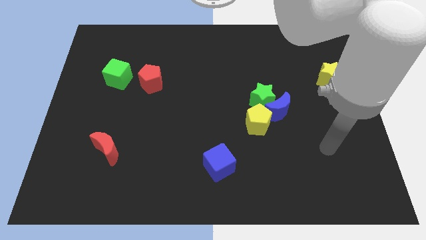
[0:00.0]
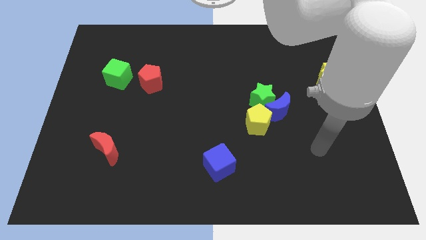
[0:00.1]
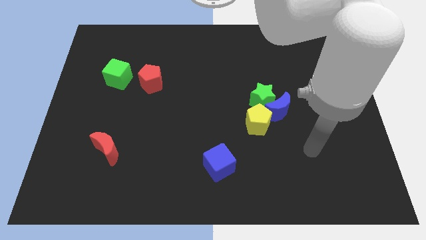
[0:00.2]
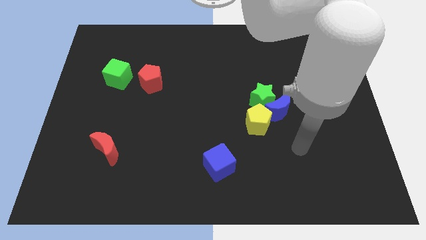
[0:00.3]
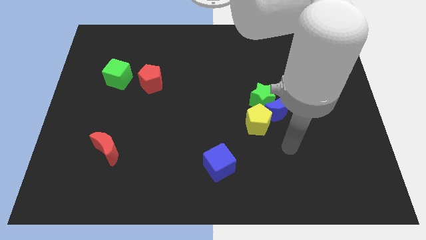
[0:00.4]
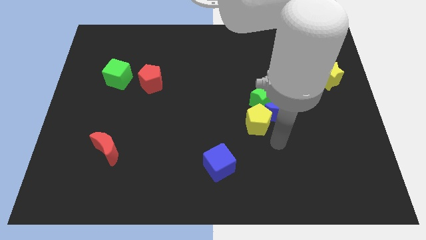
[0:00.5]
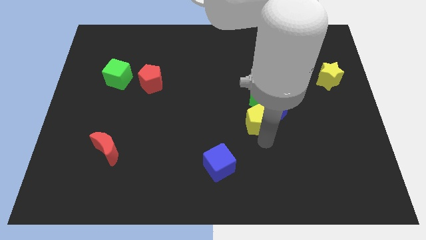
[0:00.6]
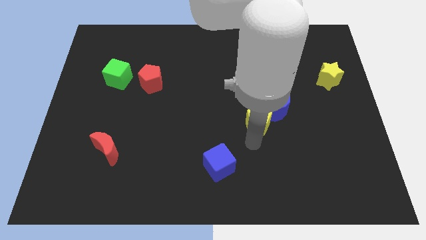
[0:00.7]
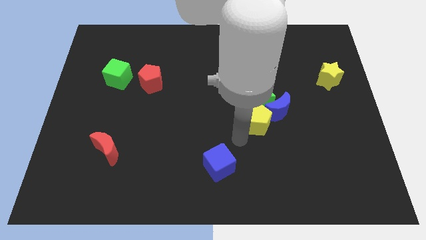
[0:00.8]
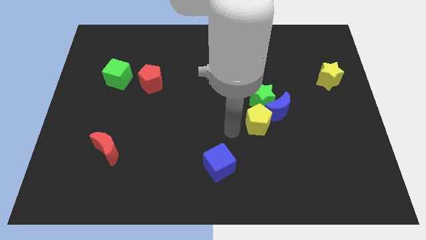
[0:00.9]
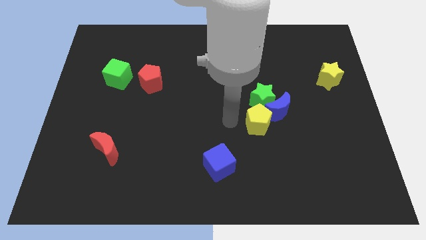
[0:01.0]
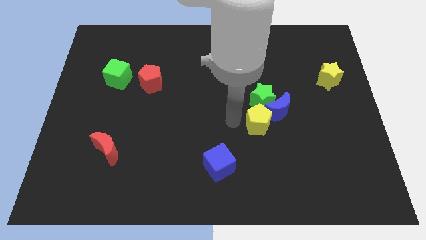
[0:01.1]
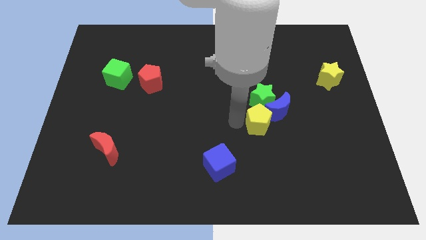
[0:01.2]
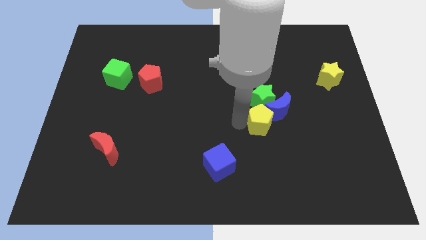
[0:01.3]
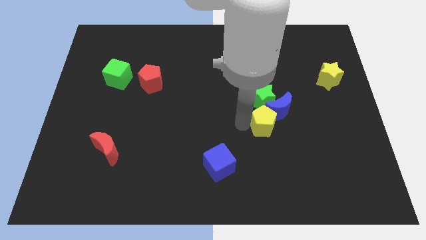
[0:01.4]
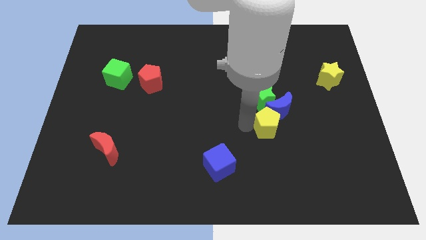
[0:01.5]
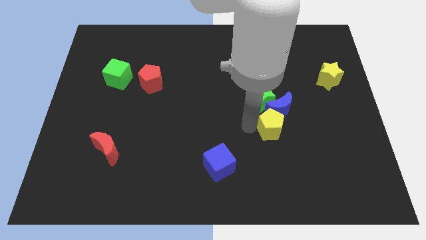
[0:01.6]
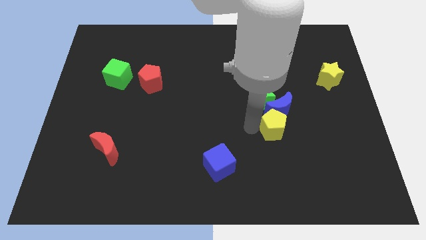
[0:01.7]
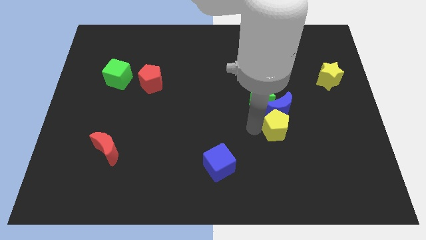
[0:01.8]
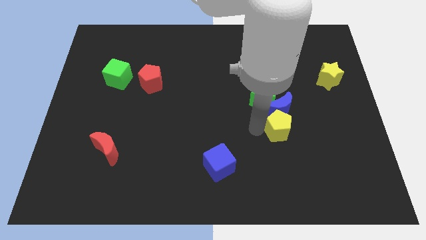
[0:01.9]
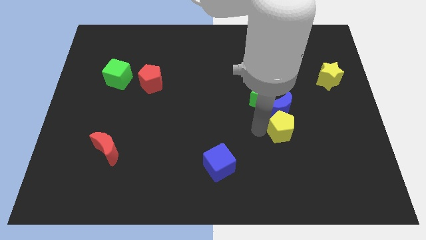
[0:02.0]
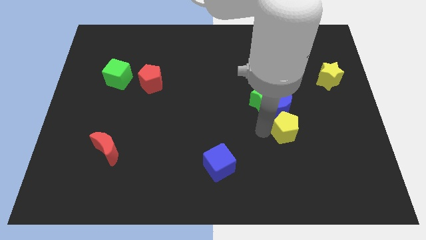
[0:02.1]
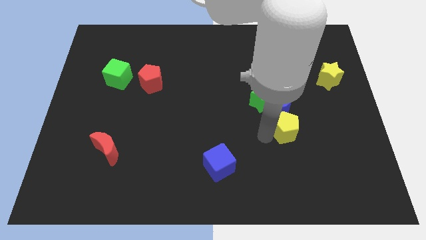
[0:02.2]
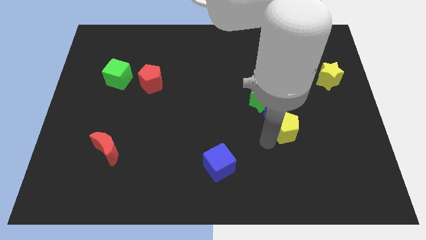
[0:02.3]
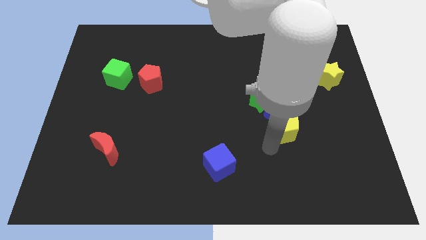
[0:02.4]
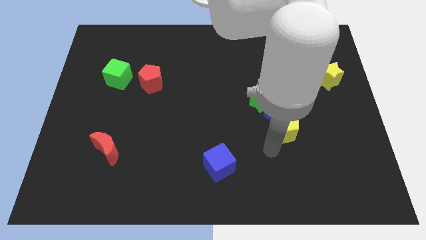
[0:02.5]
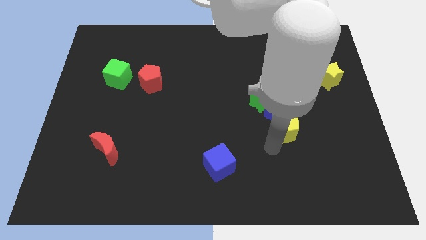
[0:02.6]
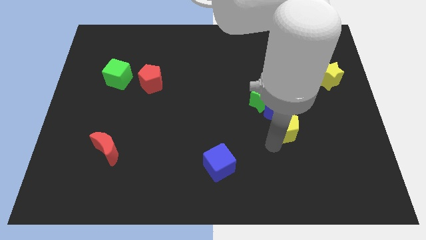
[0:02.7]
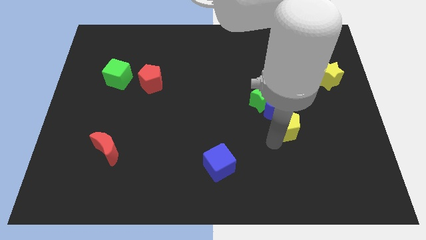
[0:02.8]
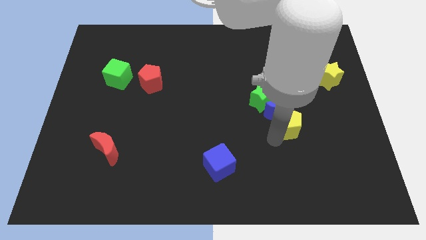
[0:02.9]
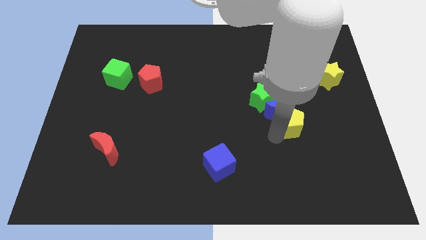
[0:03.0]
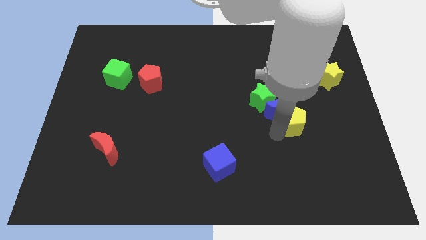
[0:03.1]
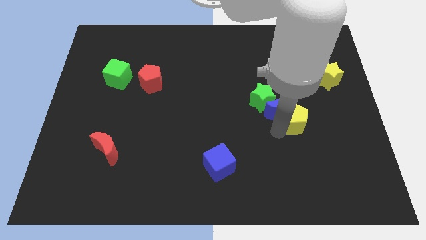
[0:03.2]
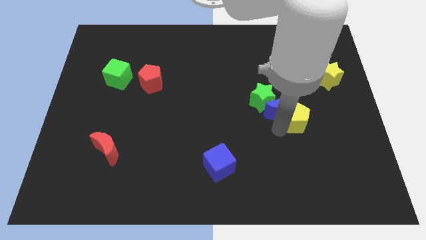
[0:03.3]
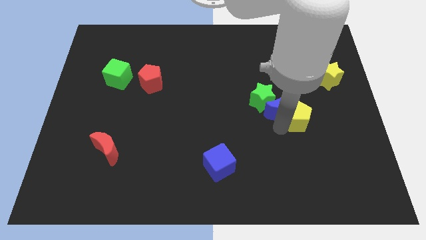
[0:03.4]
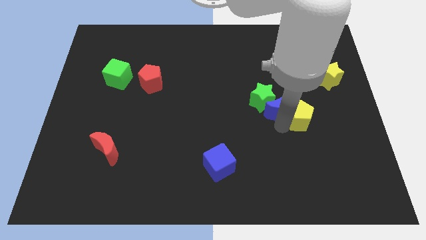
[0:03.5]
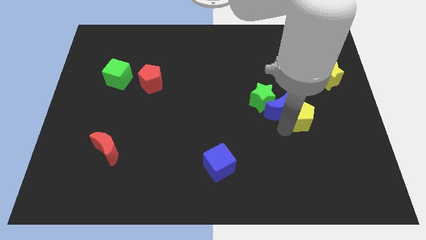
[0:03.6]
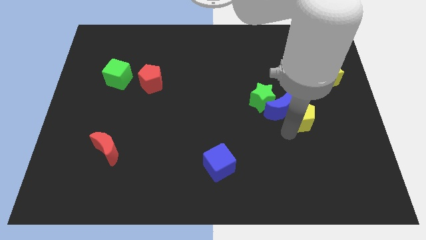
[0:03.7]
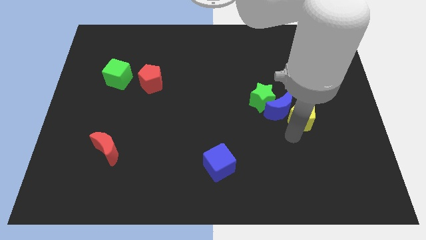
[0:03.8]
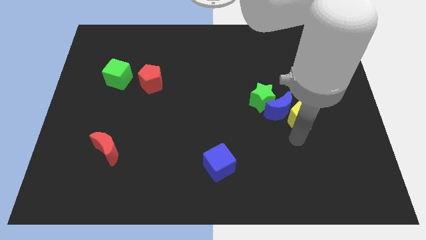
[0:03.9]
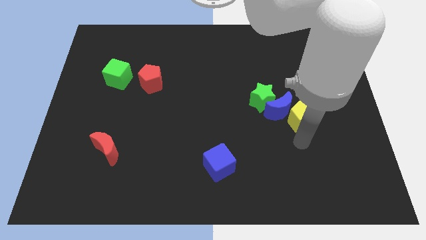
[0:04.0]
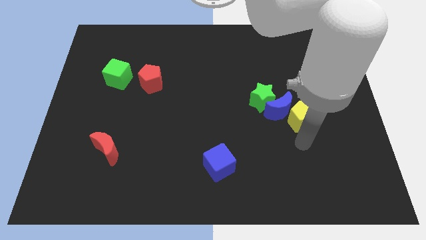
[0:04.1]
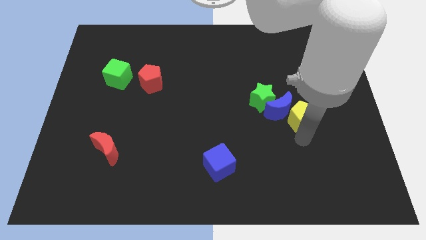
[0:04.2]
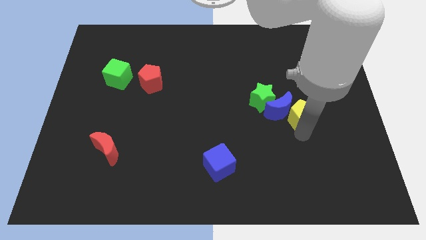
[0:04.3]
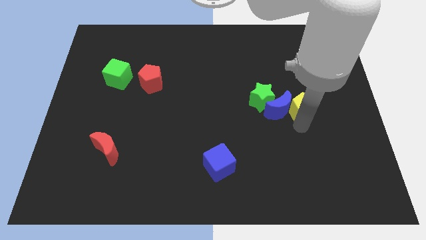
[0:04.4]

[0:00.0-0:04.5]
slightly slide the yellow pentagon up and to the right diagonally

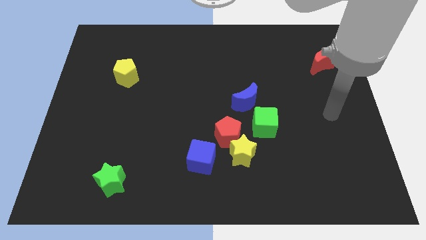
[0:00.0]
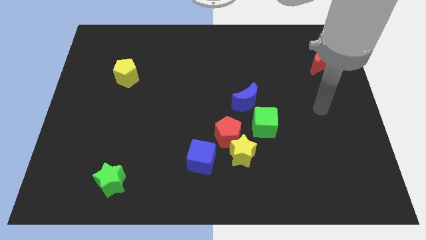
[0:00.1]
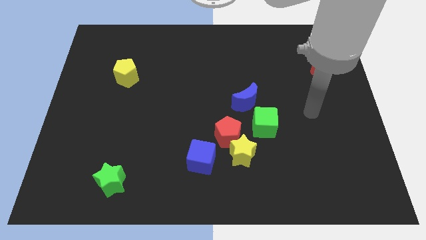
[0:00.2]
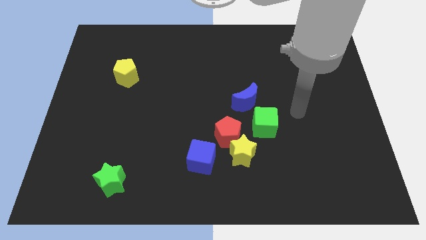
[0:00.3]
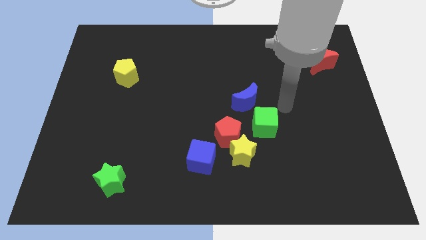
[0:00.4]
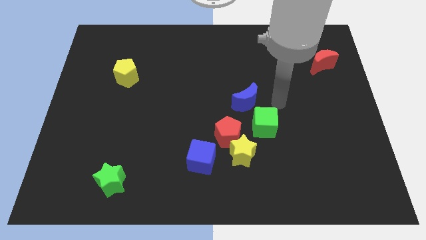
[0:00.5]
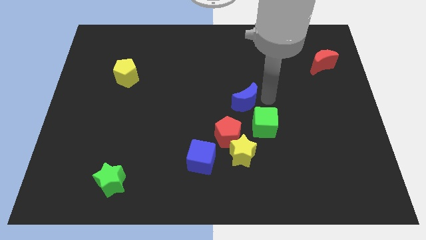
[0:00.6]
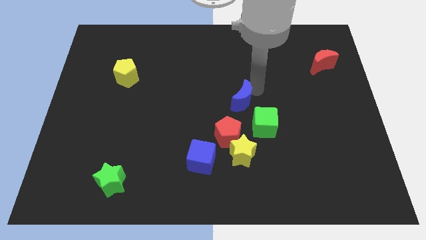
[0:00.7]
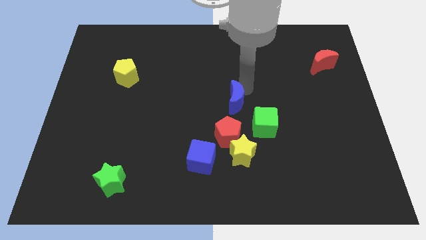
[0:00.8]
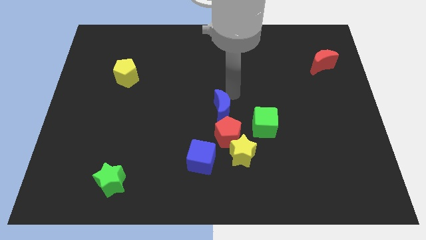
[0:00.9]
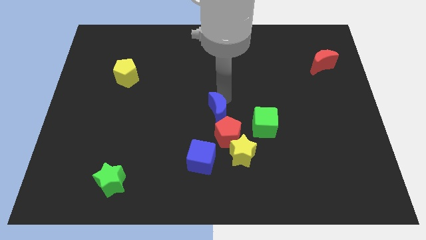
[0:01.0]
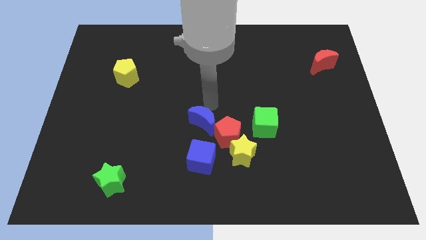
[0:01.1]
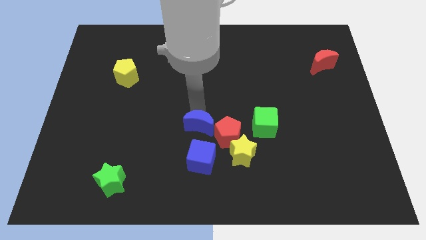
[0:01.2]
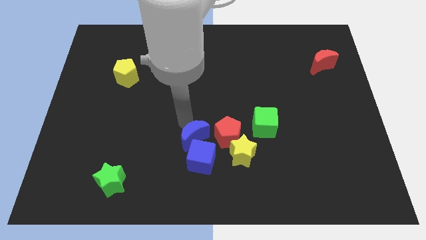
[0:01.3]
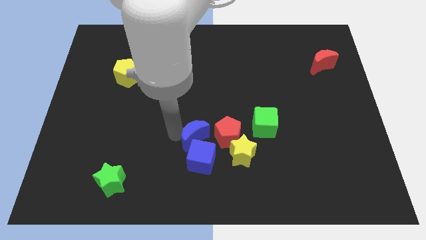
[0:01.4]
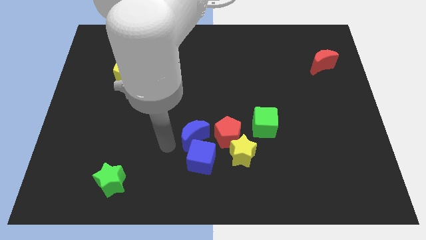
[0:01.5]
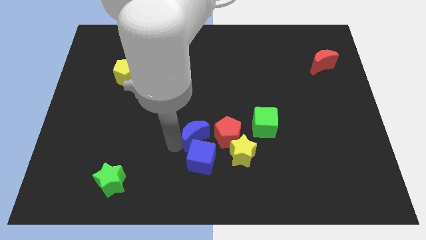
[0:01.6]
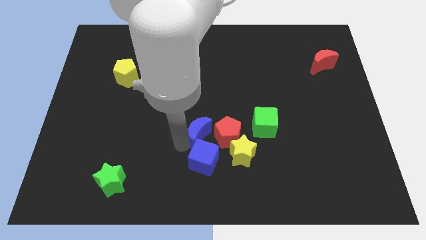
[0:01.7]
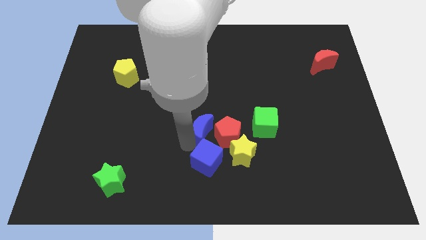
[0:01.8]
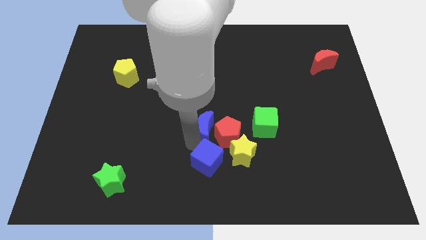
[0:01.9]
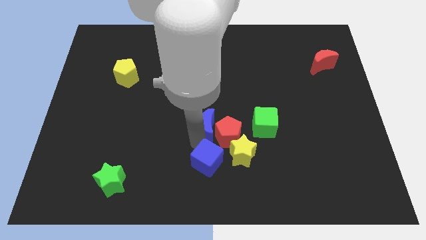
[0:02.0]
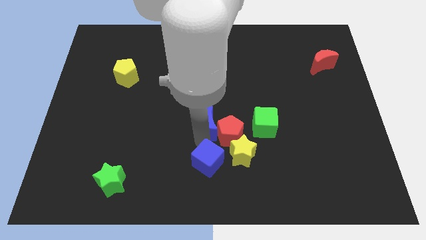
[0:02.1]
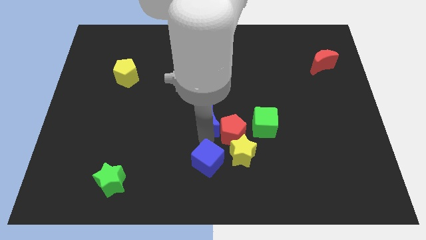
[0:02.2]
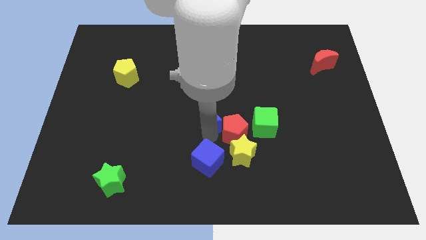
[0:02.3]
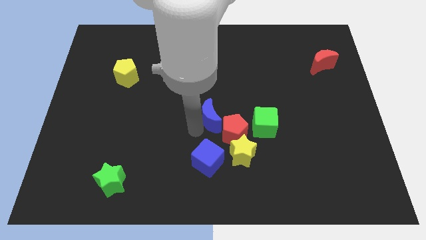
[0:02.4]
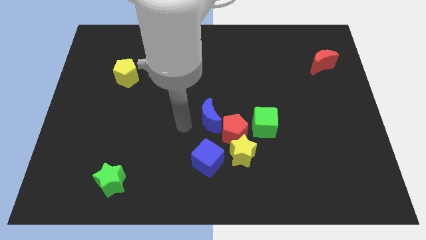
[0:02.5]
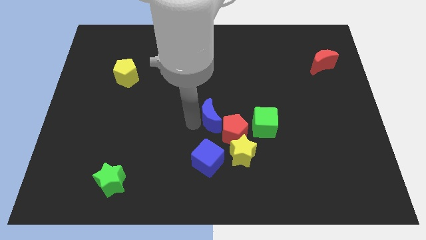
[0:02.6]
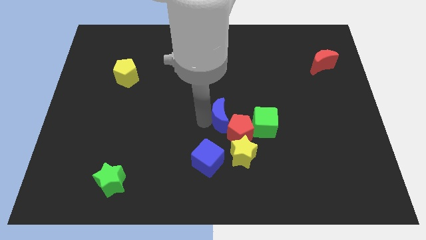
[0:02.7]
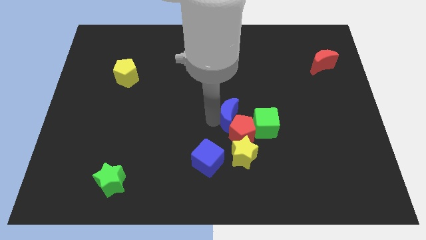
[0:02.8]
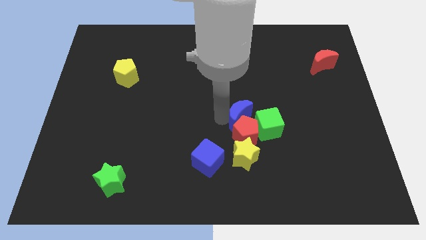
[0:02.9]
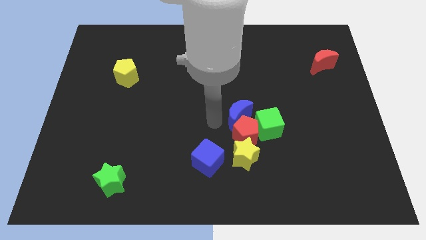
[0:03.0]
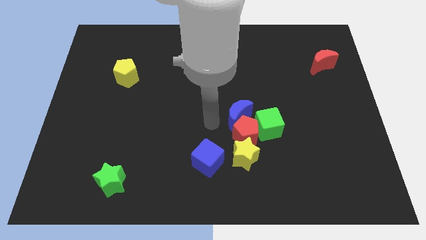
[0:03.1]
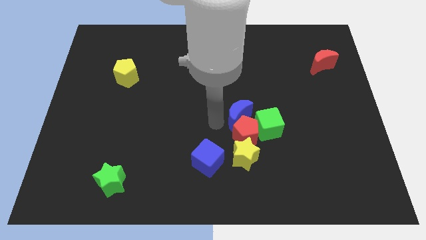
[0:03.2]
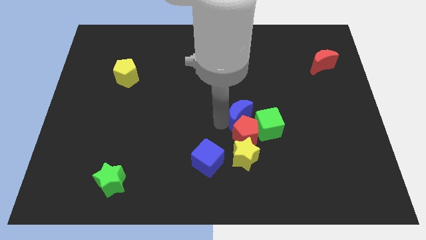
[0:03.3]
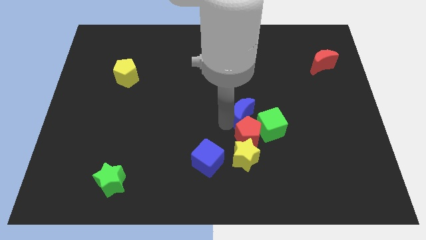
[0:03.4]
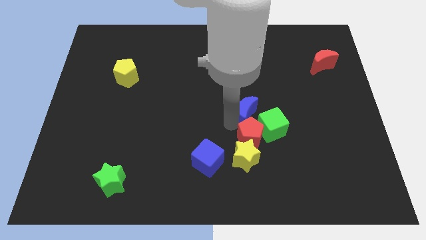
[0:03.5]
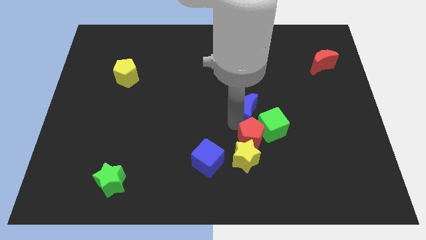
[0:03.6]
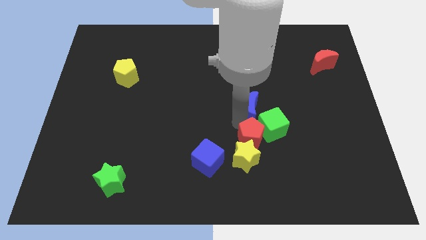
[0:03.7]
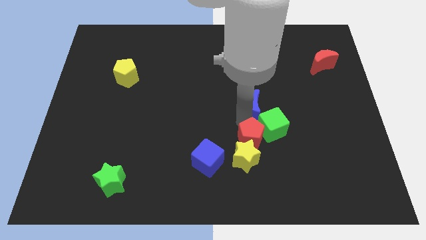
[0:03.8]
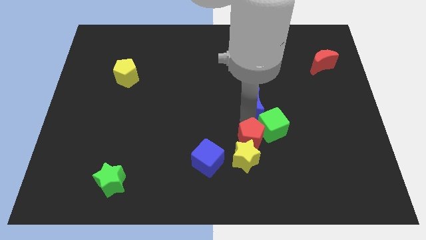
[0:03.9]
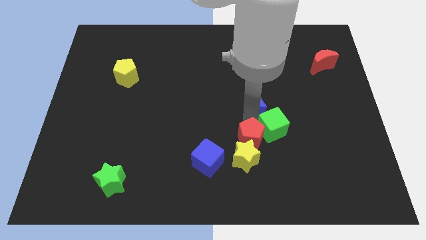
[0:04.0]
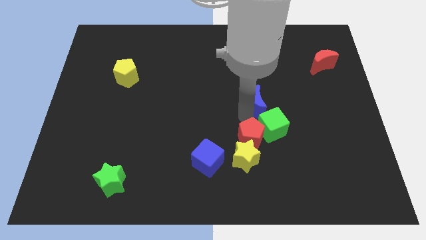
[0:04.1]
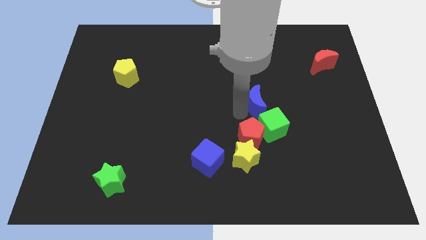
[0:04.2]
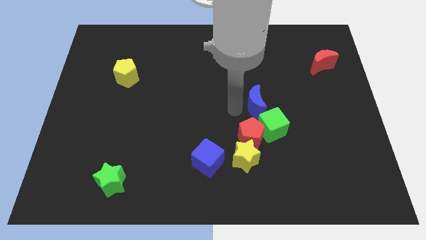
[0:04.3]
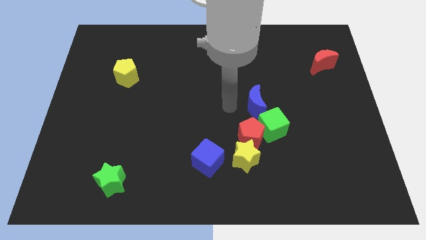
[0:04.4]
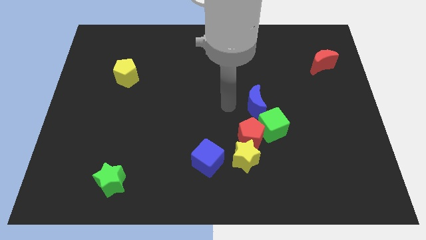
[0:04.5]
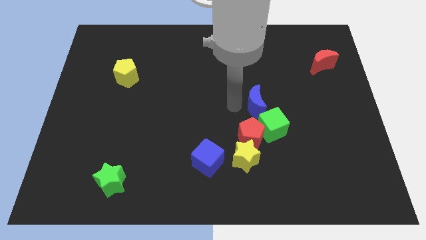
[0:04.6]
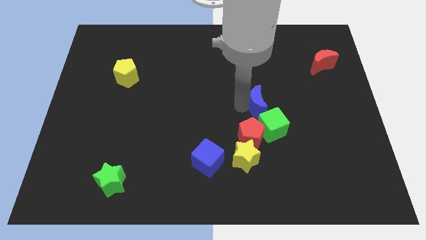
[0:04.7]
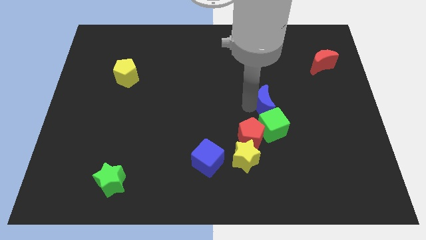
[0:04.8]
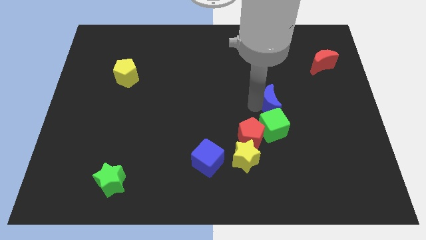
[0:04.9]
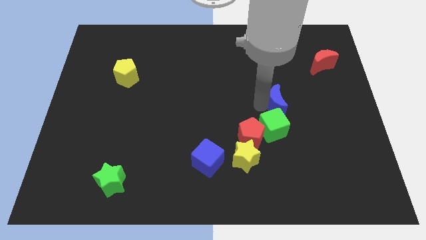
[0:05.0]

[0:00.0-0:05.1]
push the blue moon to the right a little bit
